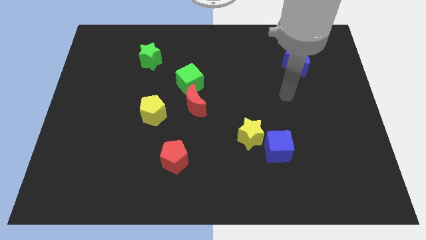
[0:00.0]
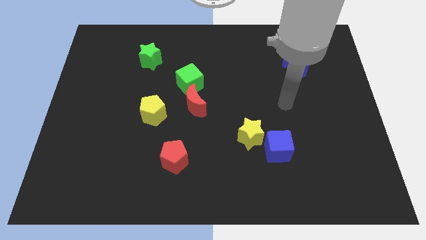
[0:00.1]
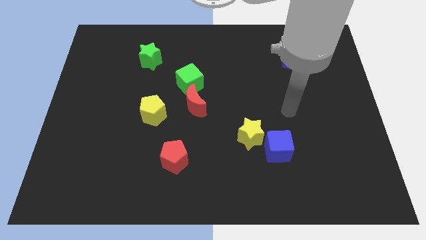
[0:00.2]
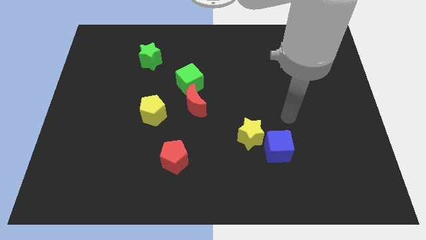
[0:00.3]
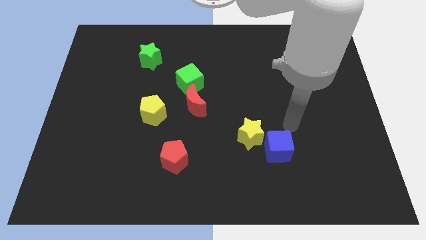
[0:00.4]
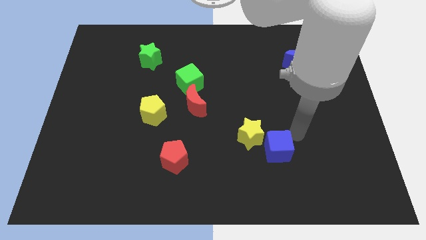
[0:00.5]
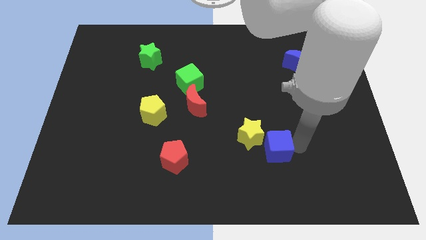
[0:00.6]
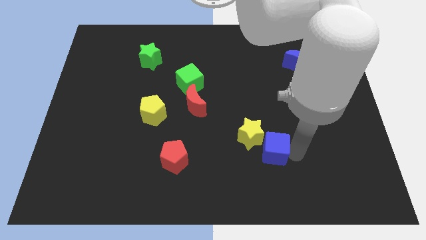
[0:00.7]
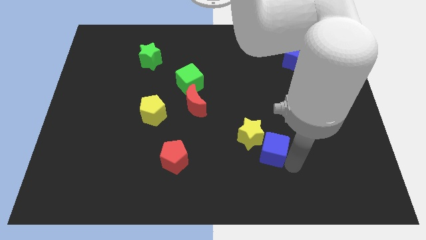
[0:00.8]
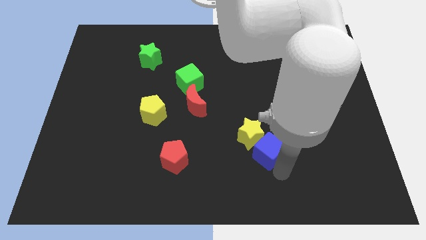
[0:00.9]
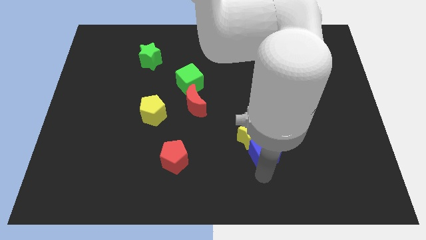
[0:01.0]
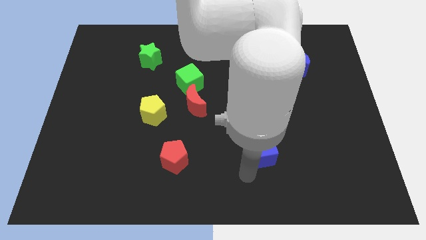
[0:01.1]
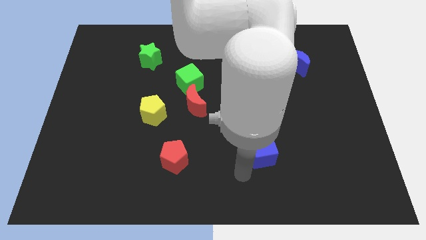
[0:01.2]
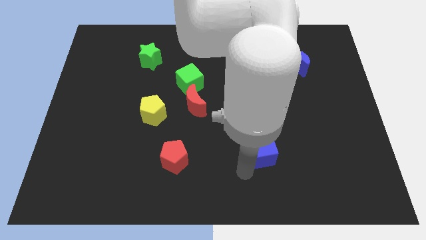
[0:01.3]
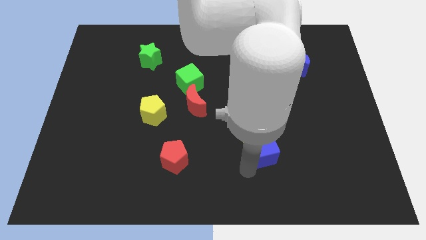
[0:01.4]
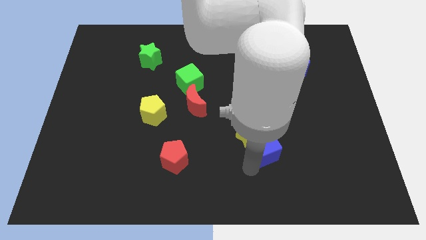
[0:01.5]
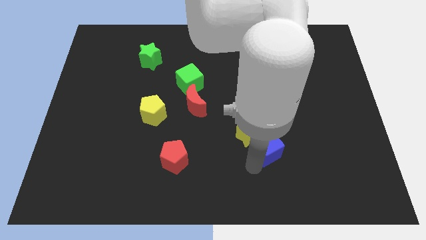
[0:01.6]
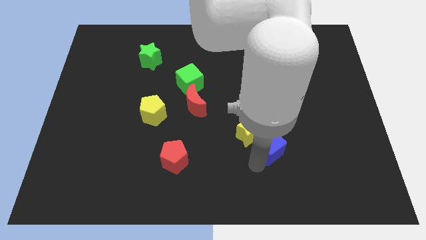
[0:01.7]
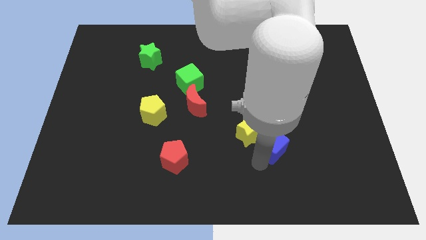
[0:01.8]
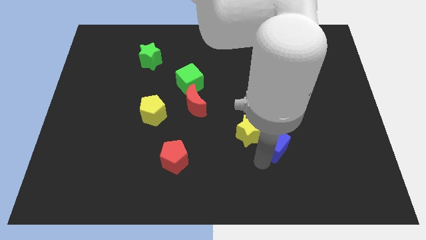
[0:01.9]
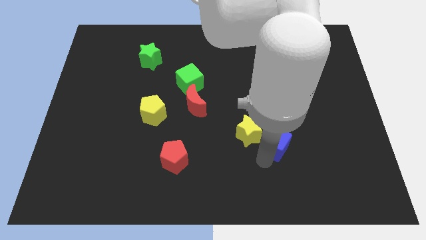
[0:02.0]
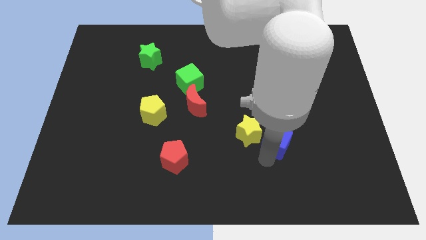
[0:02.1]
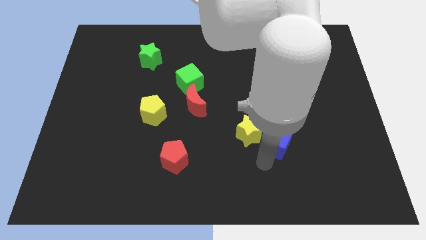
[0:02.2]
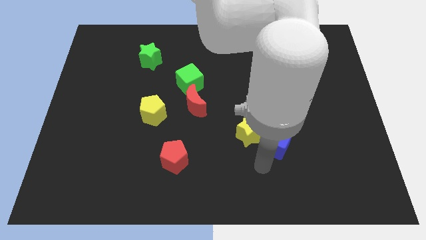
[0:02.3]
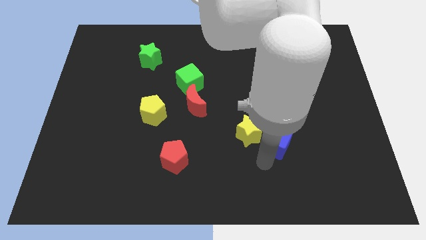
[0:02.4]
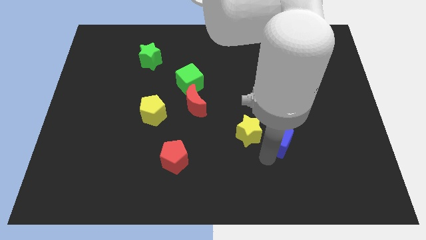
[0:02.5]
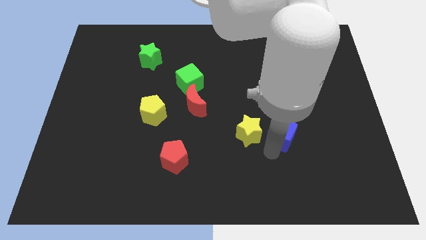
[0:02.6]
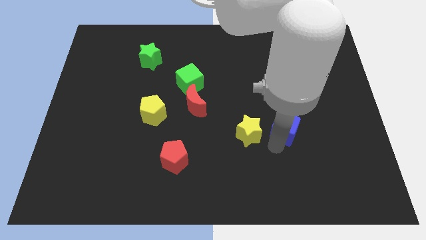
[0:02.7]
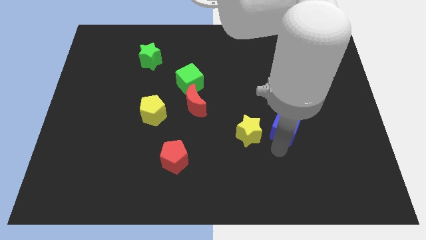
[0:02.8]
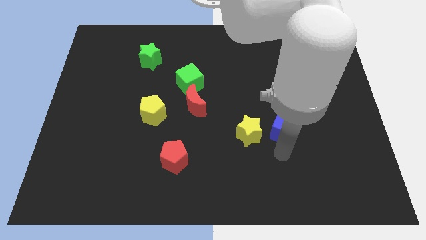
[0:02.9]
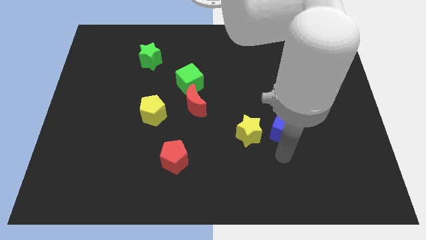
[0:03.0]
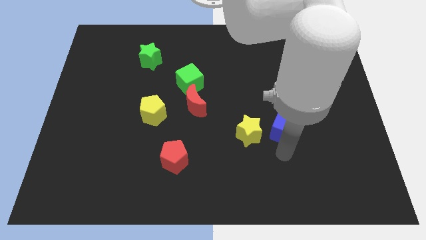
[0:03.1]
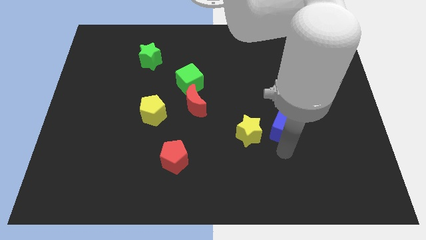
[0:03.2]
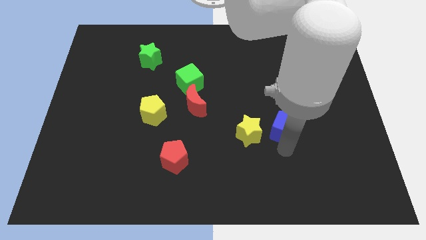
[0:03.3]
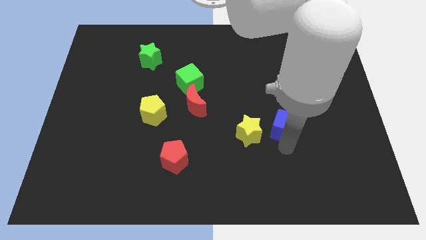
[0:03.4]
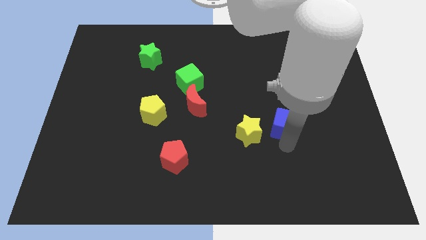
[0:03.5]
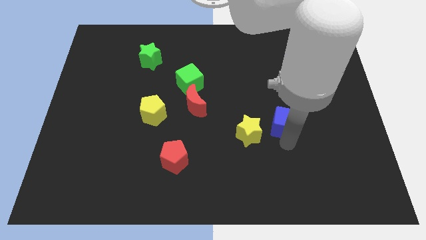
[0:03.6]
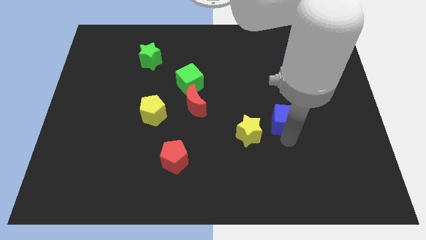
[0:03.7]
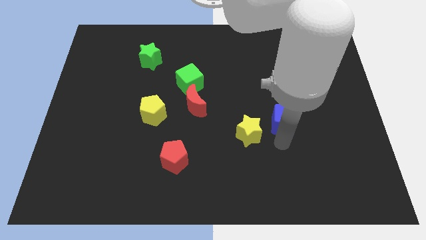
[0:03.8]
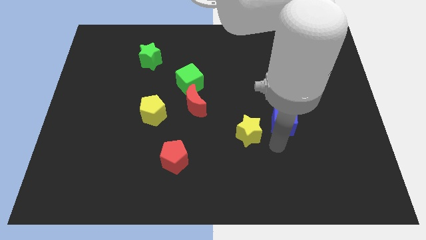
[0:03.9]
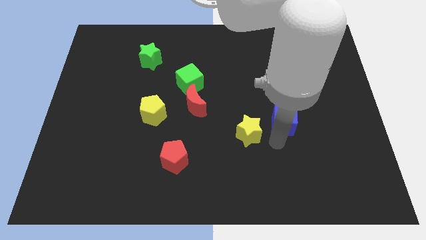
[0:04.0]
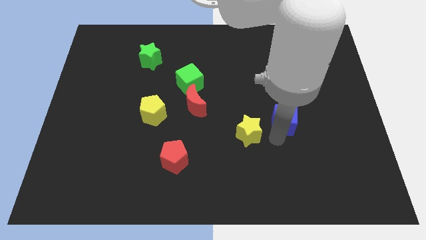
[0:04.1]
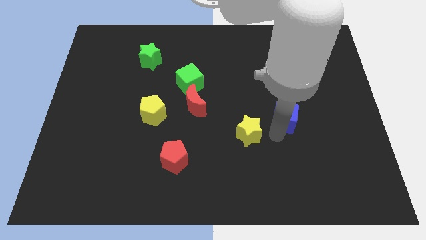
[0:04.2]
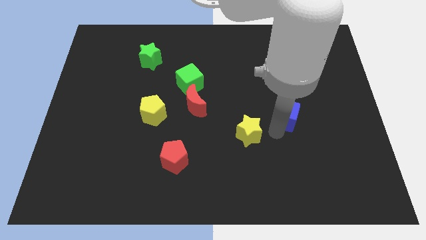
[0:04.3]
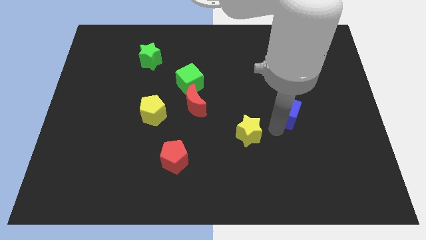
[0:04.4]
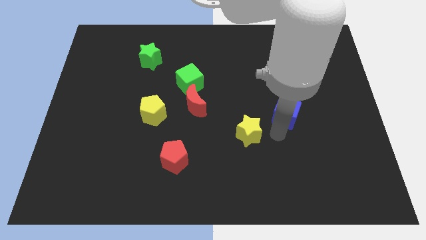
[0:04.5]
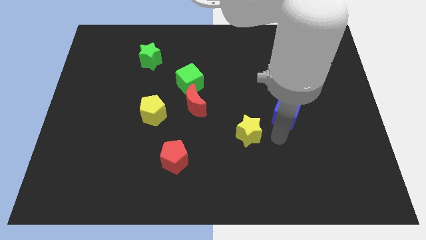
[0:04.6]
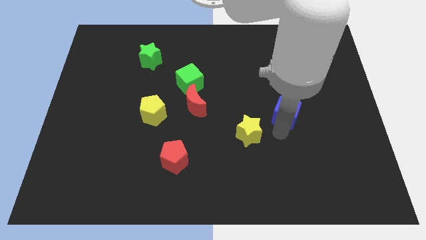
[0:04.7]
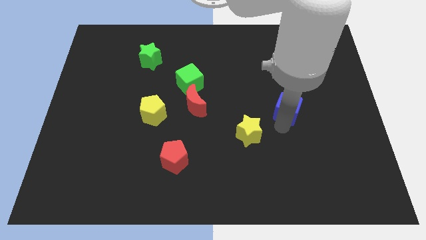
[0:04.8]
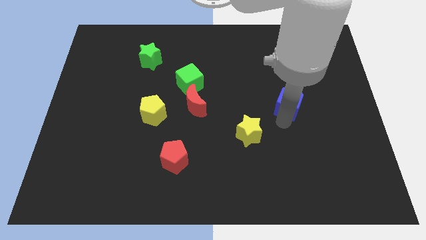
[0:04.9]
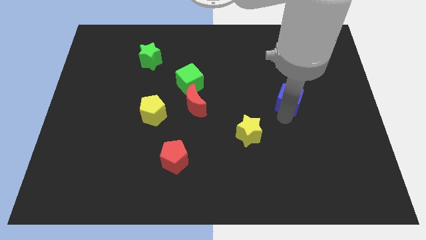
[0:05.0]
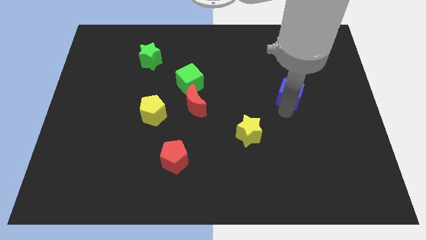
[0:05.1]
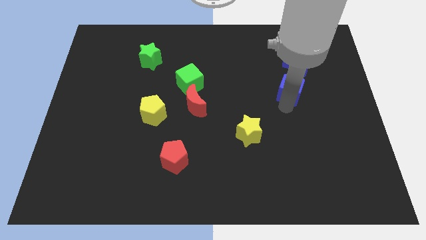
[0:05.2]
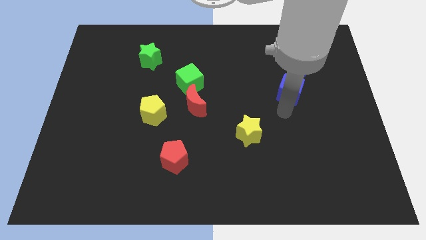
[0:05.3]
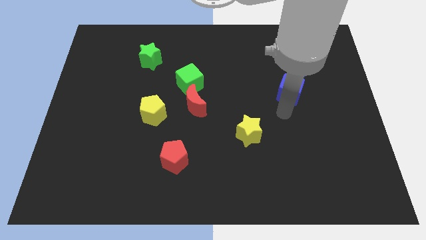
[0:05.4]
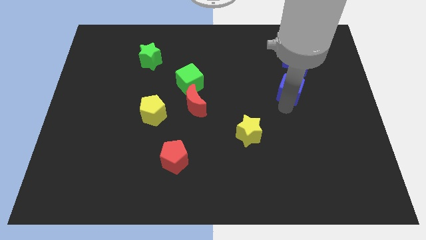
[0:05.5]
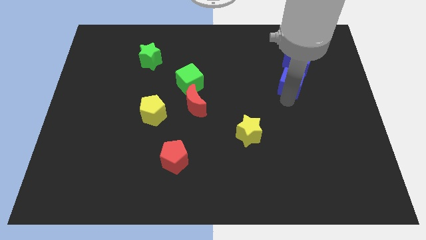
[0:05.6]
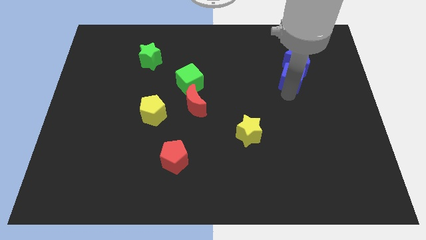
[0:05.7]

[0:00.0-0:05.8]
put the blue cube close to the blue moon

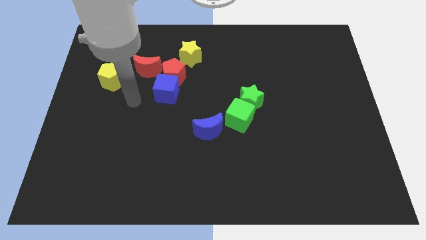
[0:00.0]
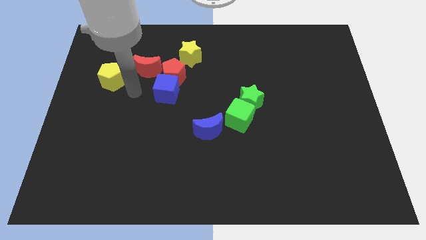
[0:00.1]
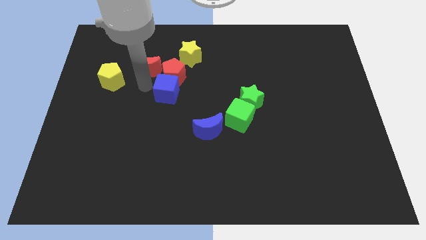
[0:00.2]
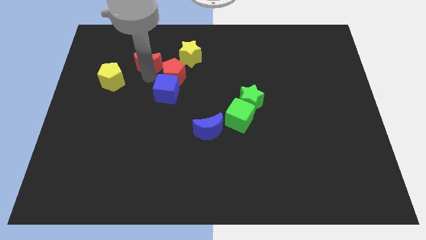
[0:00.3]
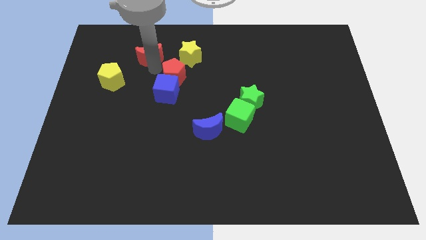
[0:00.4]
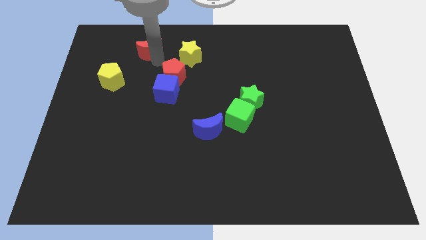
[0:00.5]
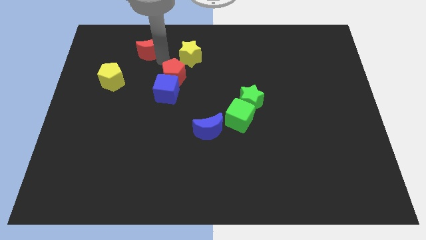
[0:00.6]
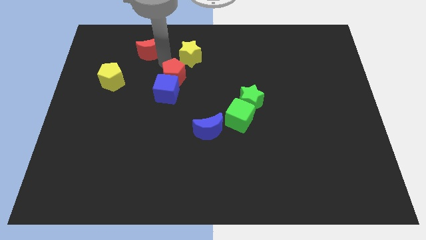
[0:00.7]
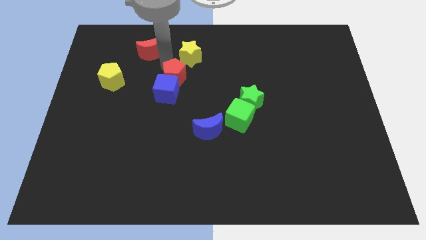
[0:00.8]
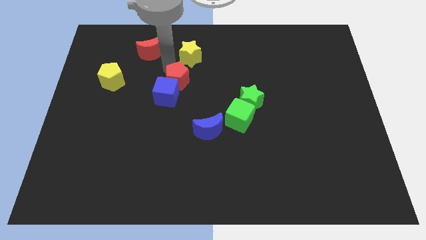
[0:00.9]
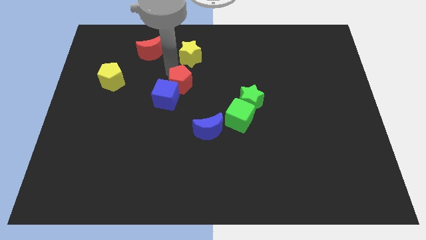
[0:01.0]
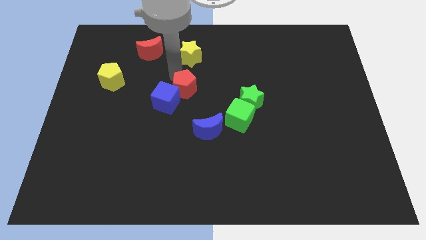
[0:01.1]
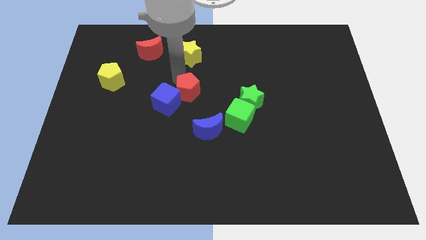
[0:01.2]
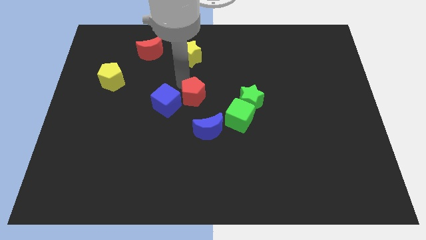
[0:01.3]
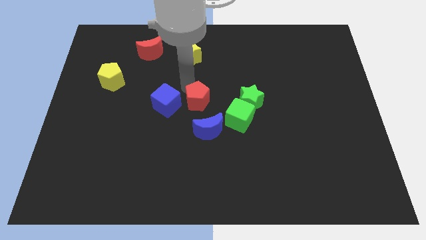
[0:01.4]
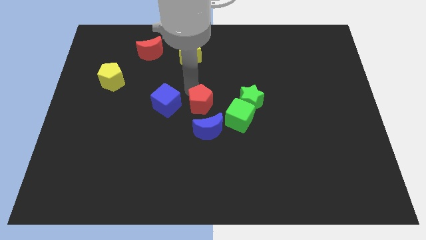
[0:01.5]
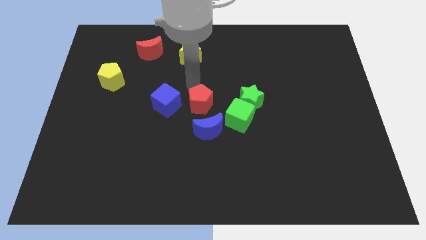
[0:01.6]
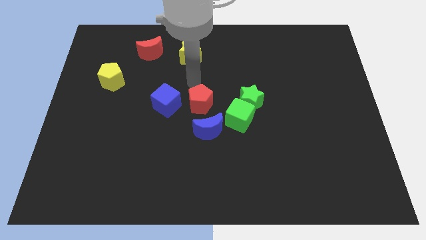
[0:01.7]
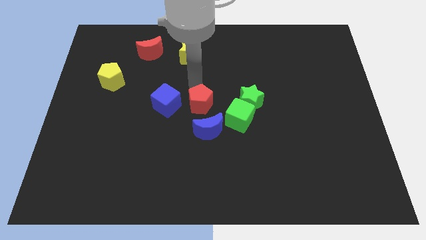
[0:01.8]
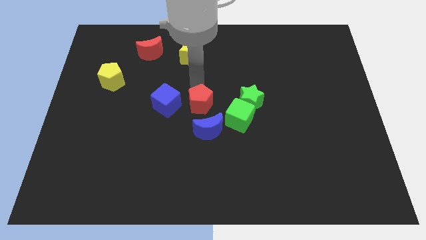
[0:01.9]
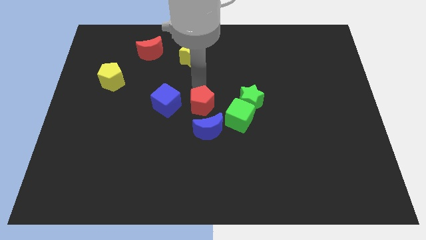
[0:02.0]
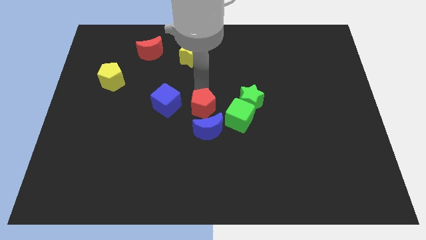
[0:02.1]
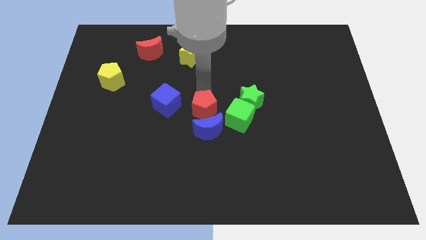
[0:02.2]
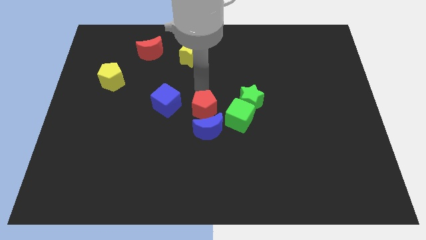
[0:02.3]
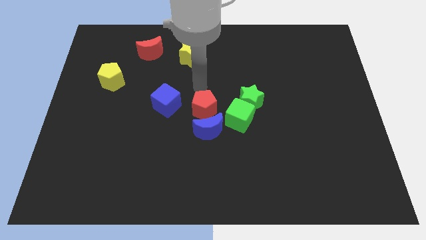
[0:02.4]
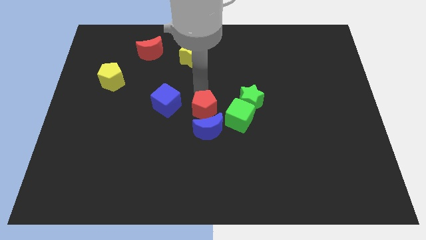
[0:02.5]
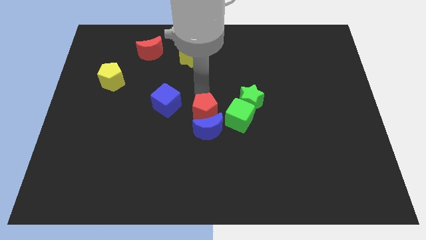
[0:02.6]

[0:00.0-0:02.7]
move the red pentagon close to the blue moon
